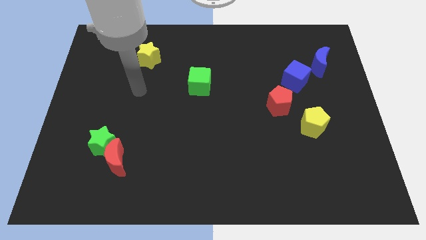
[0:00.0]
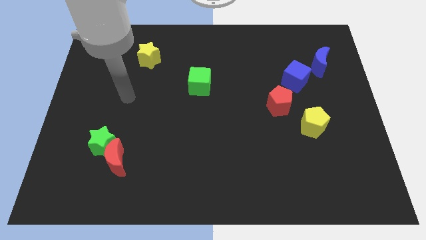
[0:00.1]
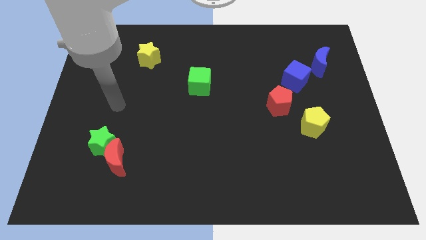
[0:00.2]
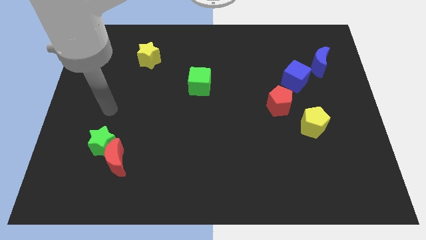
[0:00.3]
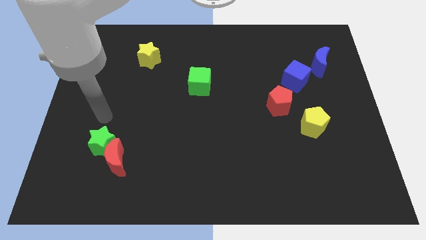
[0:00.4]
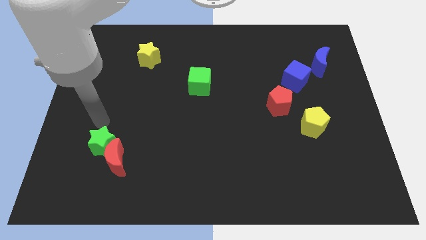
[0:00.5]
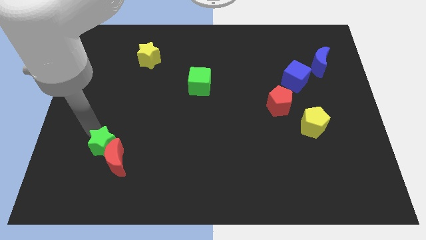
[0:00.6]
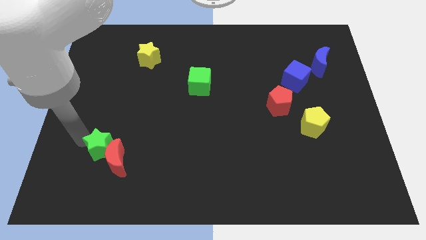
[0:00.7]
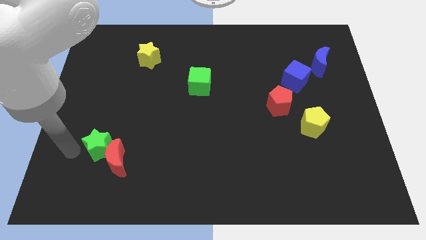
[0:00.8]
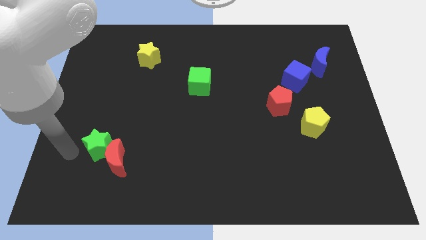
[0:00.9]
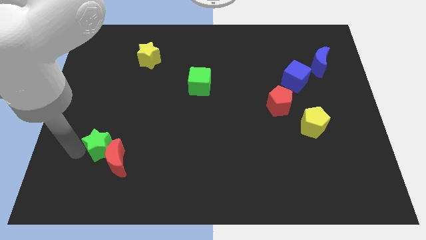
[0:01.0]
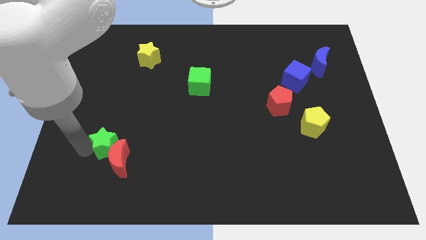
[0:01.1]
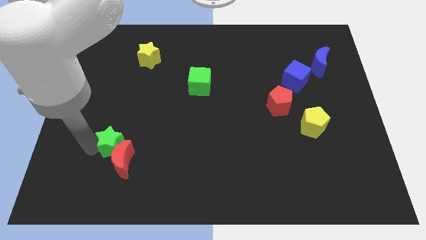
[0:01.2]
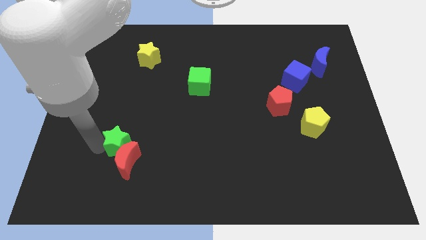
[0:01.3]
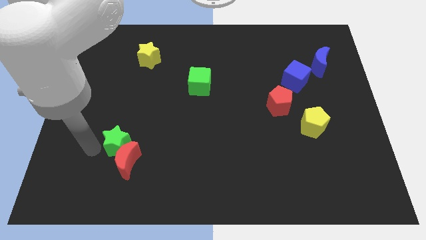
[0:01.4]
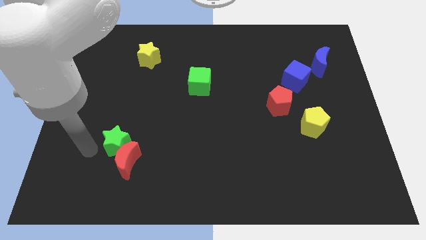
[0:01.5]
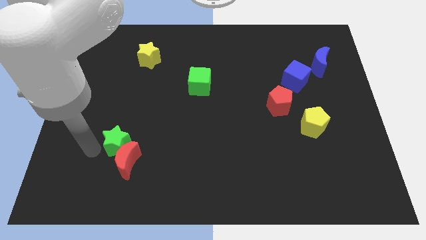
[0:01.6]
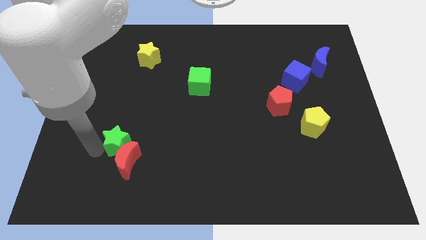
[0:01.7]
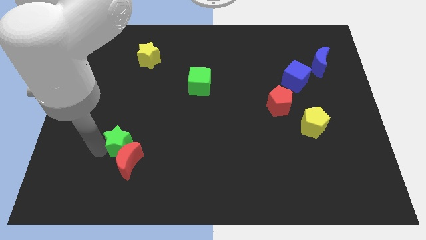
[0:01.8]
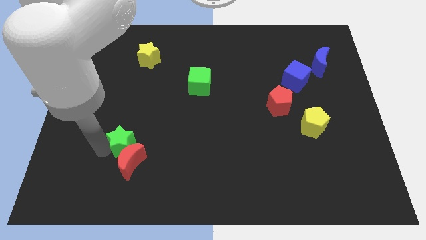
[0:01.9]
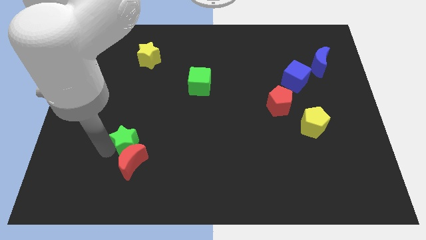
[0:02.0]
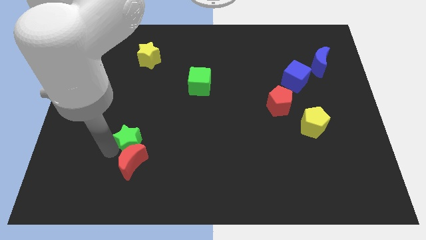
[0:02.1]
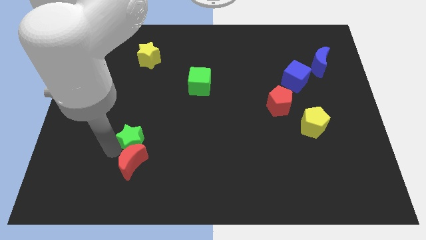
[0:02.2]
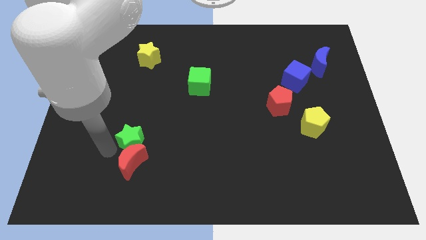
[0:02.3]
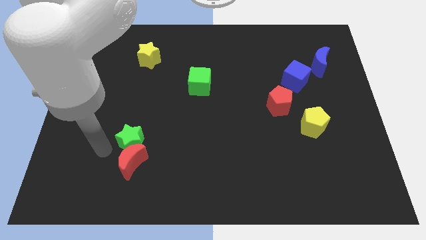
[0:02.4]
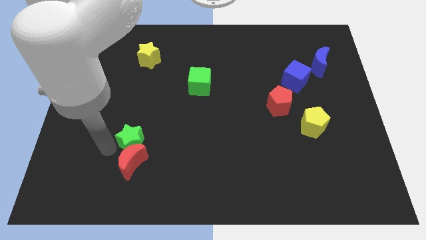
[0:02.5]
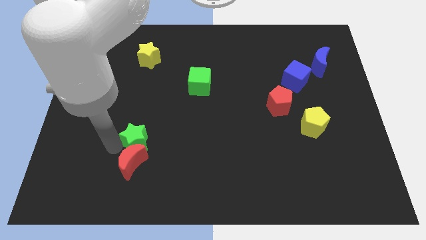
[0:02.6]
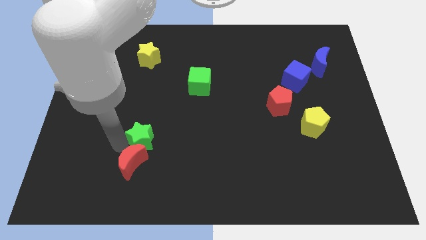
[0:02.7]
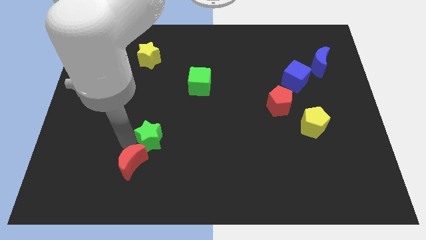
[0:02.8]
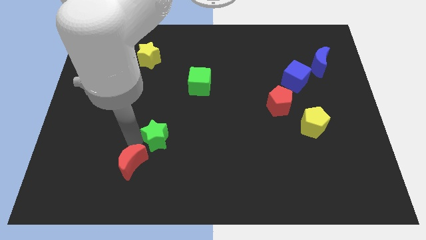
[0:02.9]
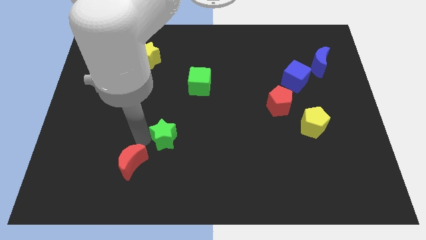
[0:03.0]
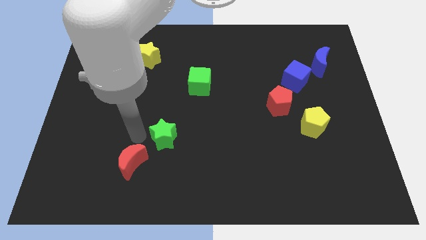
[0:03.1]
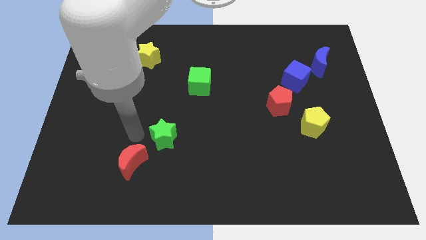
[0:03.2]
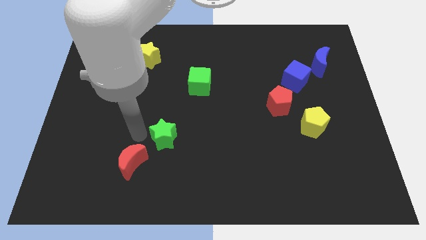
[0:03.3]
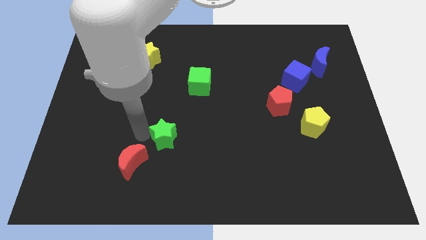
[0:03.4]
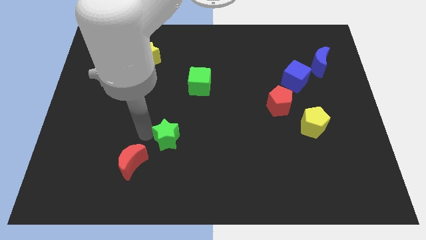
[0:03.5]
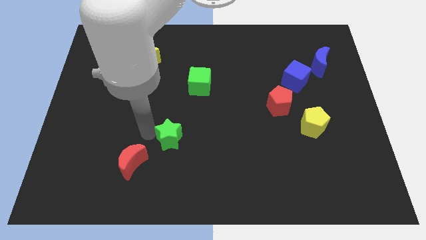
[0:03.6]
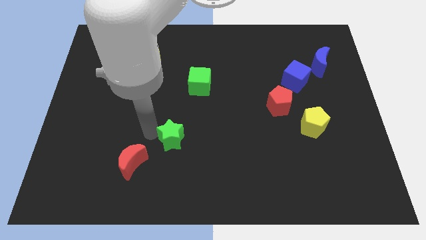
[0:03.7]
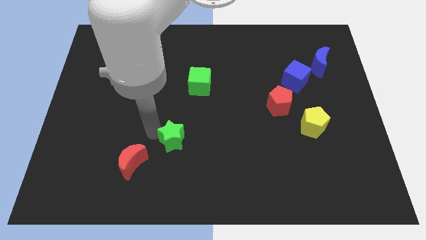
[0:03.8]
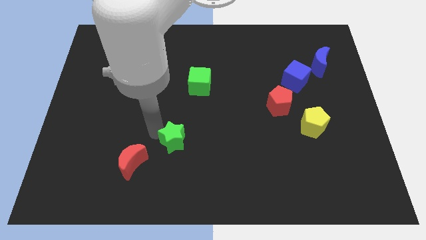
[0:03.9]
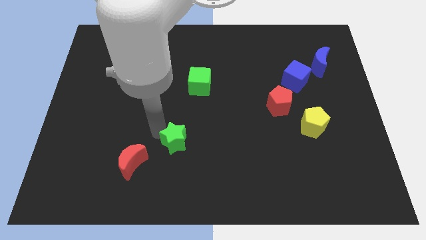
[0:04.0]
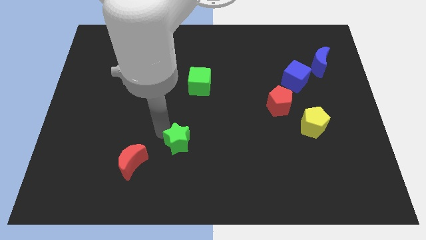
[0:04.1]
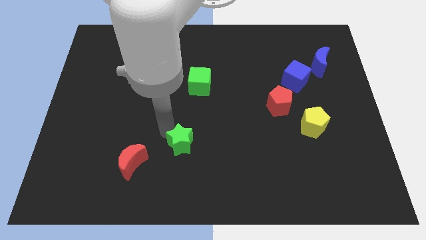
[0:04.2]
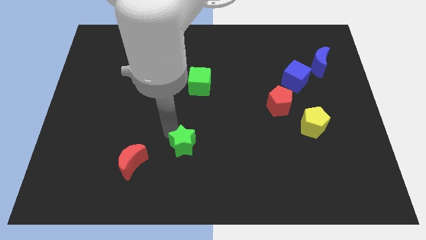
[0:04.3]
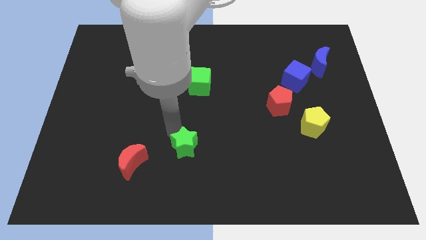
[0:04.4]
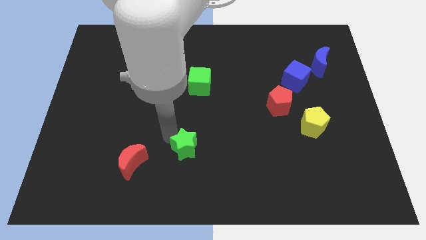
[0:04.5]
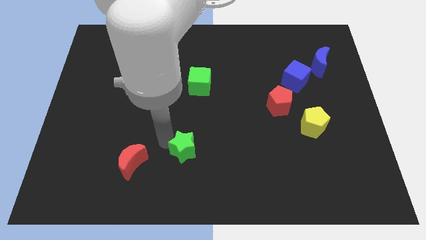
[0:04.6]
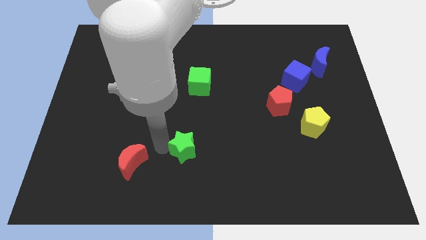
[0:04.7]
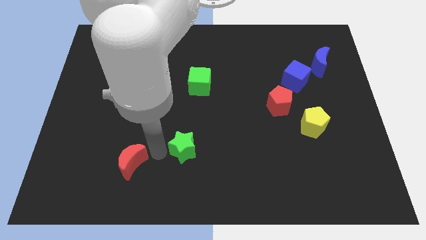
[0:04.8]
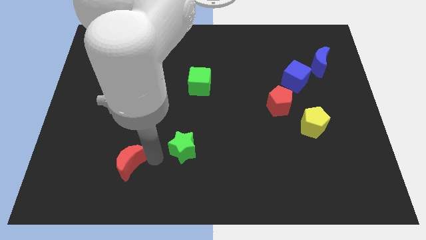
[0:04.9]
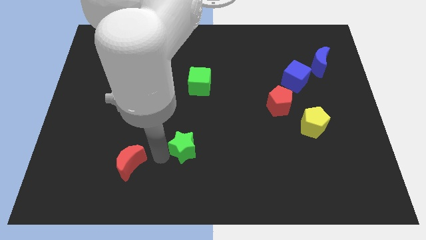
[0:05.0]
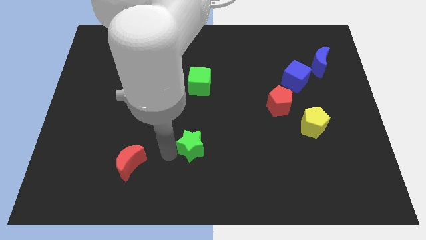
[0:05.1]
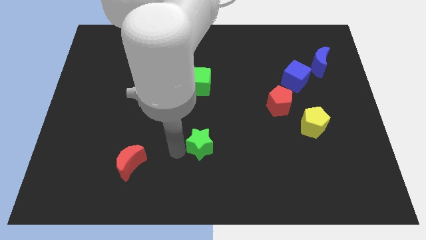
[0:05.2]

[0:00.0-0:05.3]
slide the green star to the right

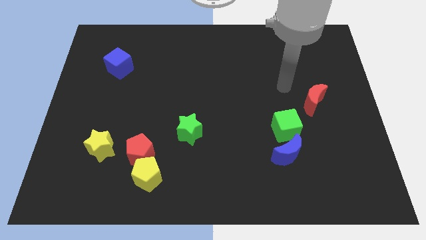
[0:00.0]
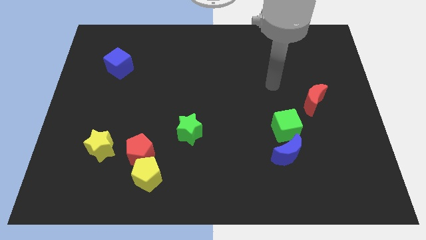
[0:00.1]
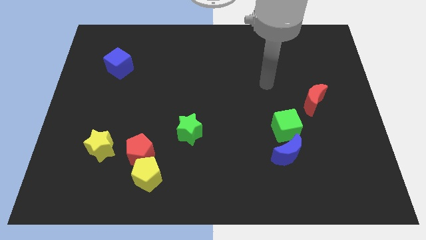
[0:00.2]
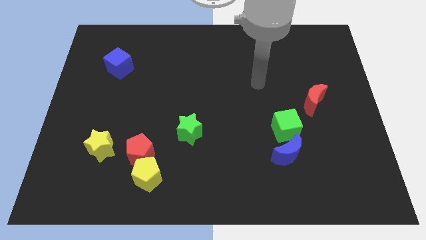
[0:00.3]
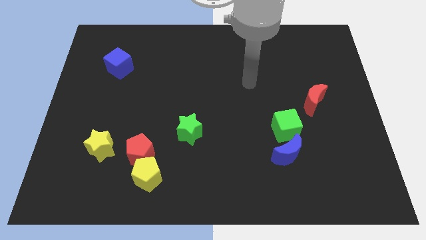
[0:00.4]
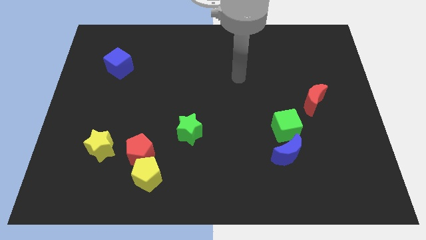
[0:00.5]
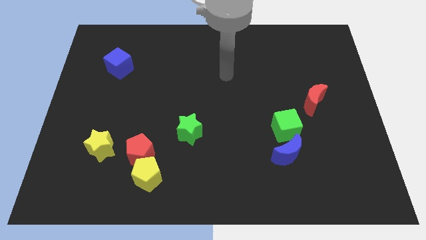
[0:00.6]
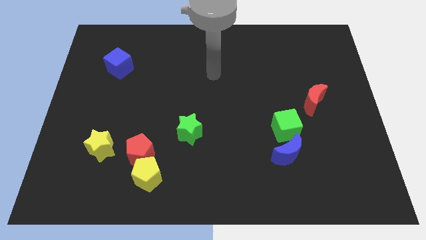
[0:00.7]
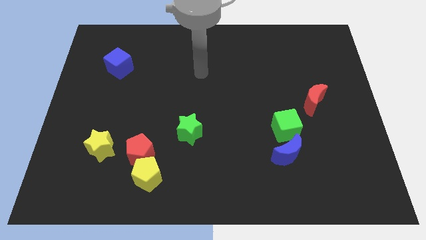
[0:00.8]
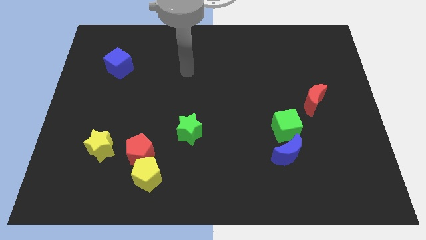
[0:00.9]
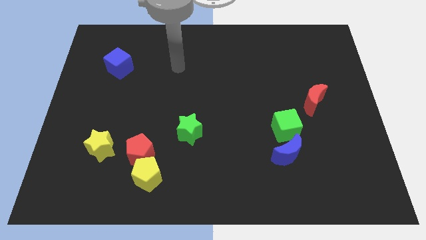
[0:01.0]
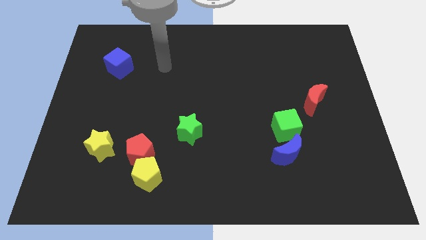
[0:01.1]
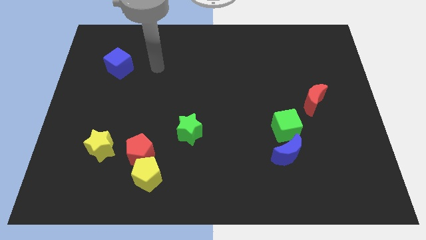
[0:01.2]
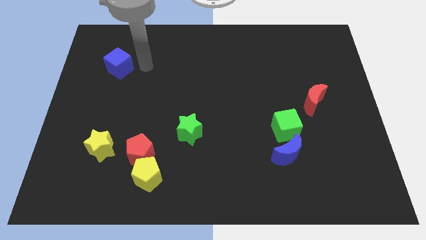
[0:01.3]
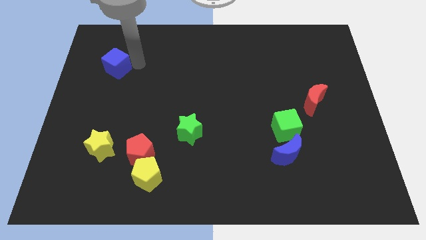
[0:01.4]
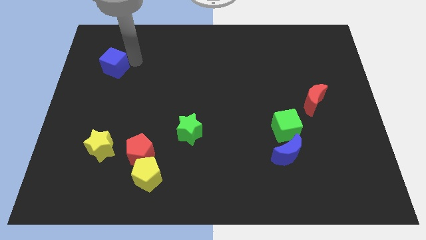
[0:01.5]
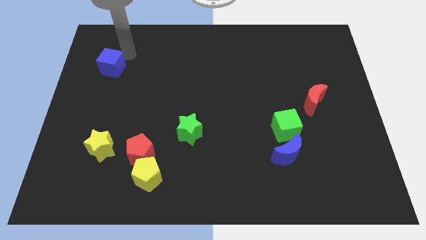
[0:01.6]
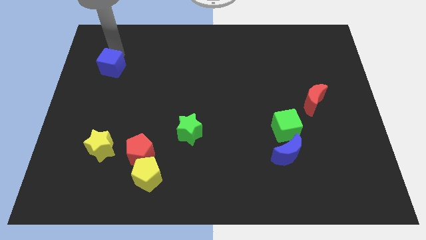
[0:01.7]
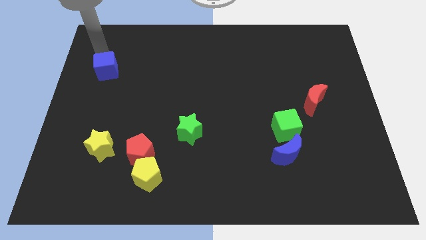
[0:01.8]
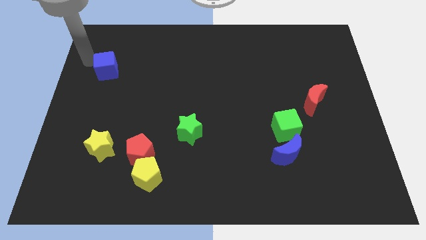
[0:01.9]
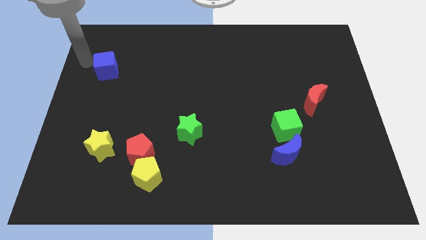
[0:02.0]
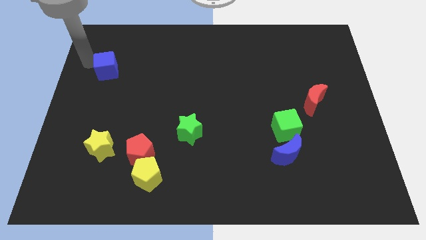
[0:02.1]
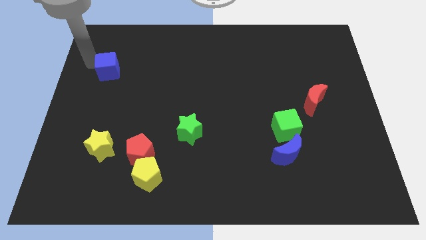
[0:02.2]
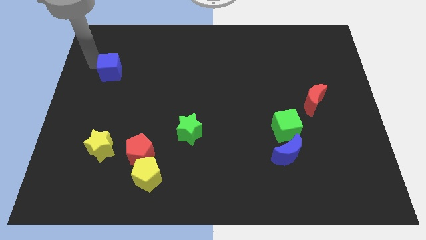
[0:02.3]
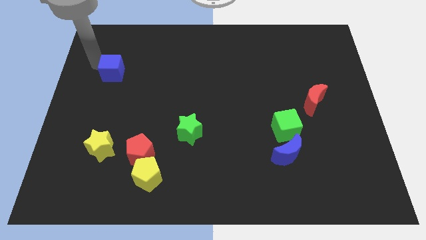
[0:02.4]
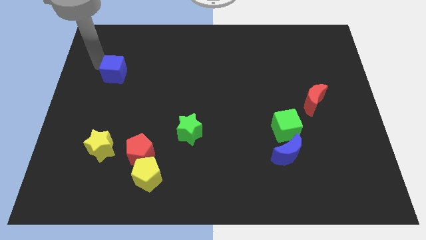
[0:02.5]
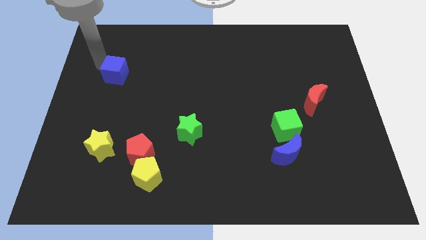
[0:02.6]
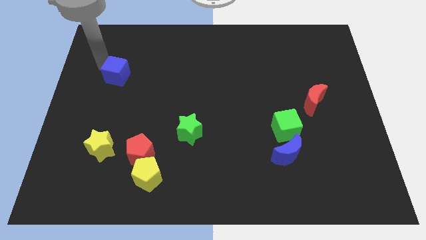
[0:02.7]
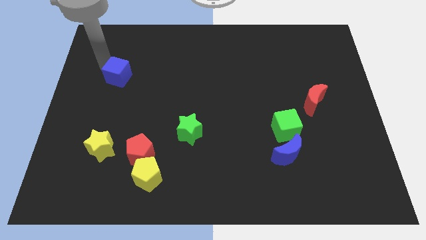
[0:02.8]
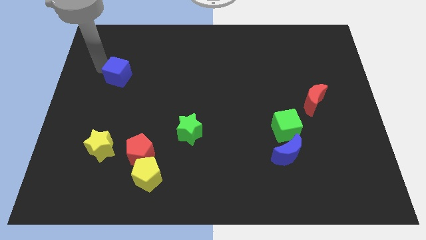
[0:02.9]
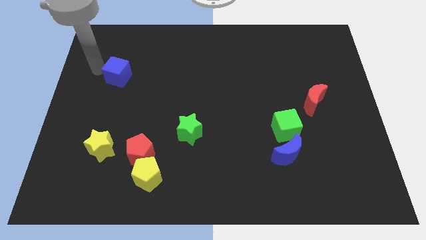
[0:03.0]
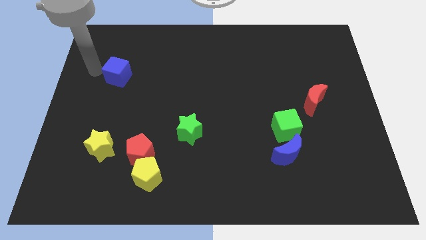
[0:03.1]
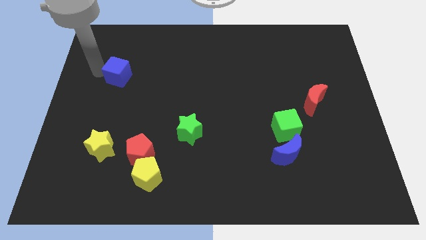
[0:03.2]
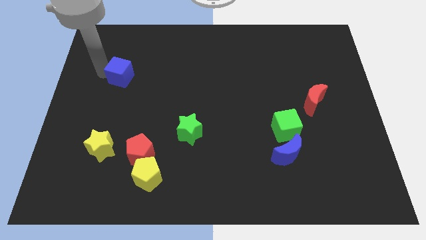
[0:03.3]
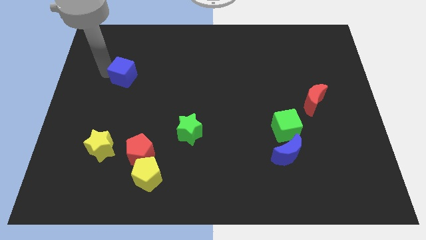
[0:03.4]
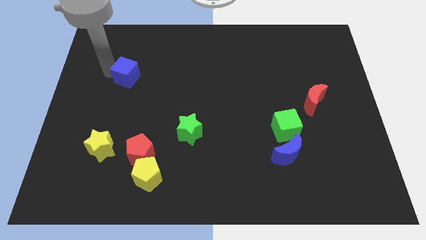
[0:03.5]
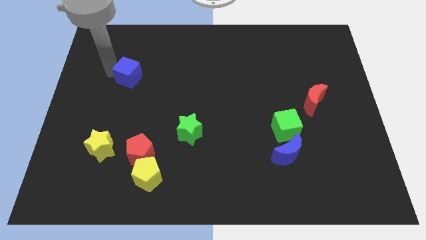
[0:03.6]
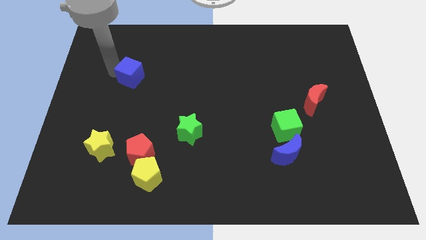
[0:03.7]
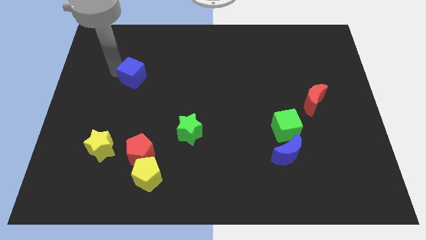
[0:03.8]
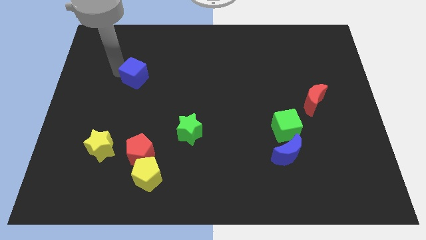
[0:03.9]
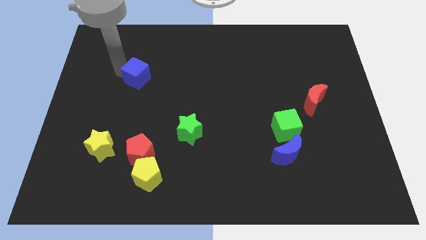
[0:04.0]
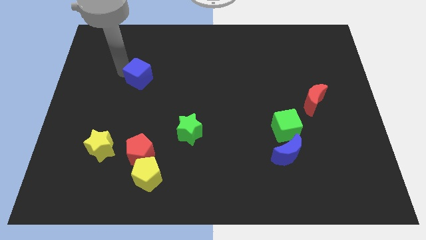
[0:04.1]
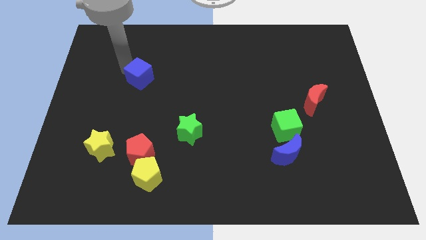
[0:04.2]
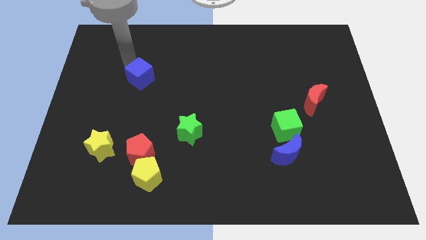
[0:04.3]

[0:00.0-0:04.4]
push the blue cube down and right a little bit
